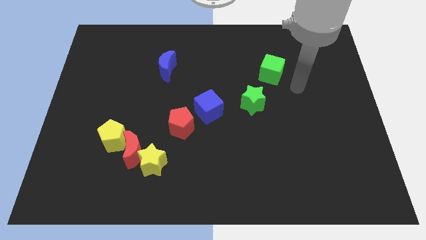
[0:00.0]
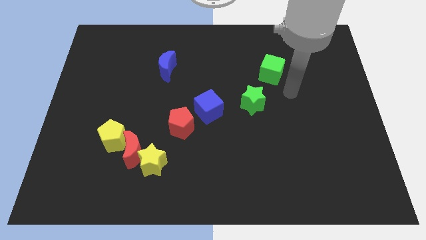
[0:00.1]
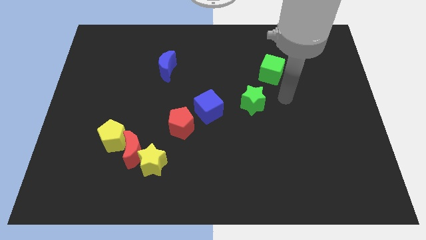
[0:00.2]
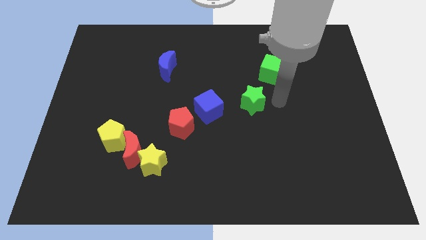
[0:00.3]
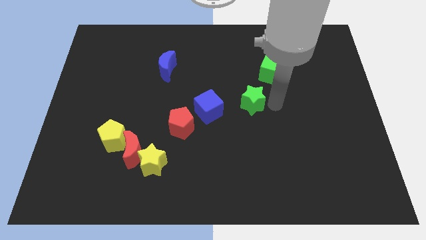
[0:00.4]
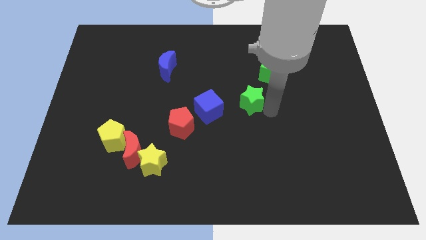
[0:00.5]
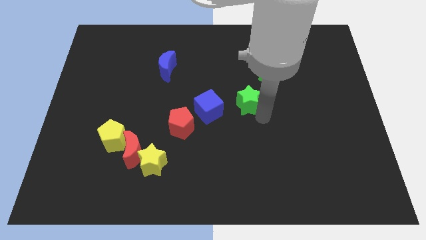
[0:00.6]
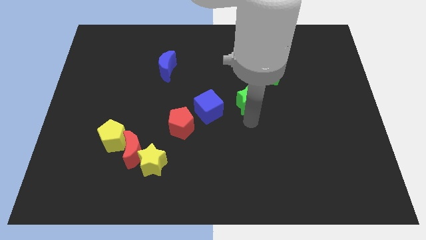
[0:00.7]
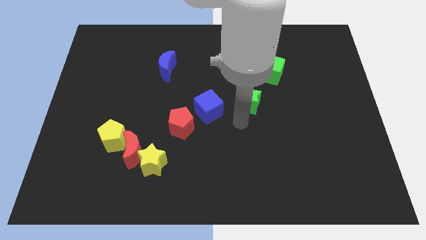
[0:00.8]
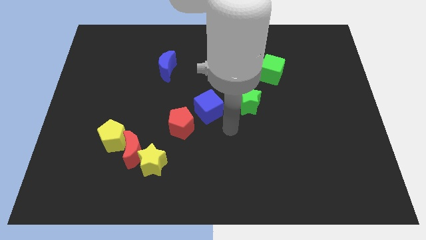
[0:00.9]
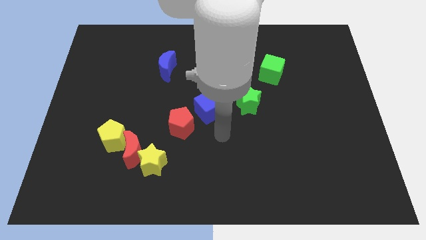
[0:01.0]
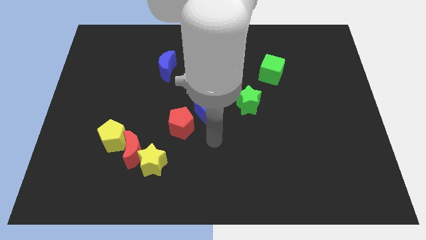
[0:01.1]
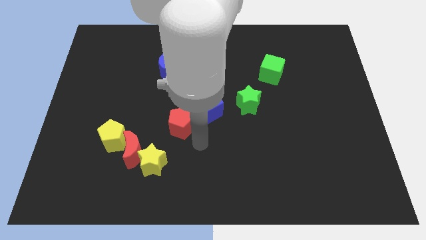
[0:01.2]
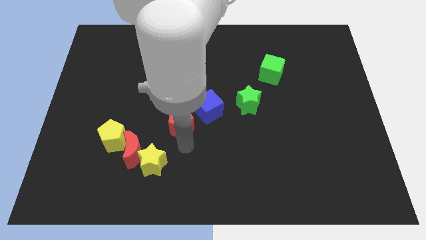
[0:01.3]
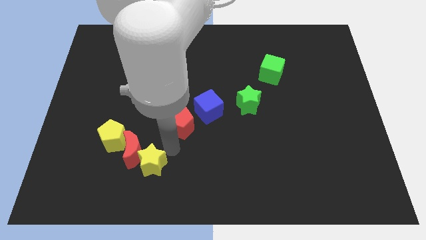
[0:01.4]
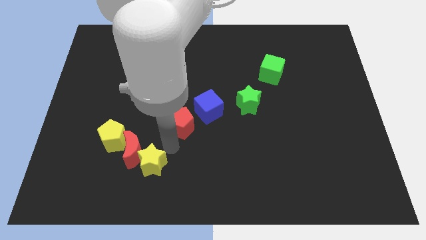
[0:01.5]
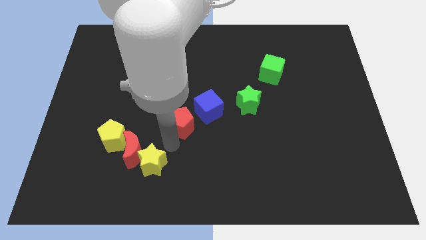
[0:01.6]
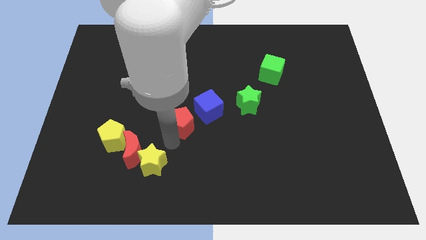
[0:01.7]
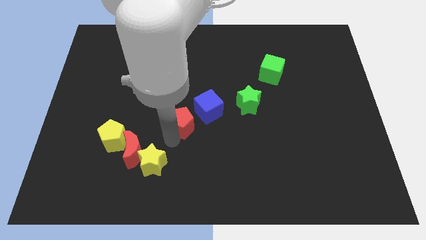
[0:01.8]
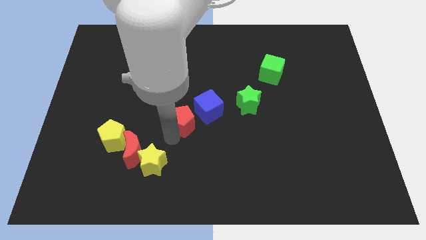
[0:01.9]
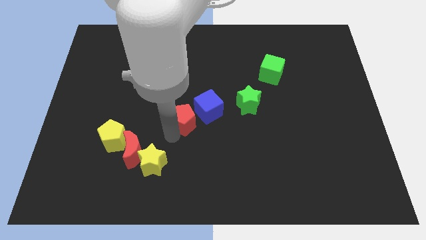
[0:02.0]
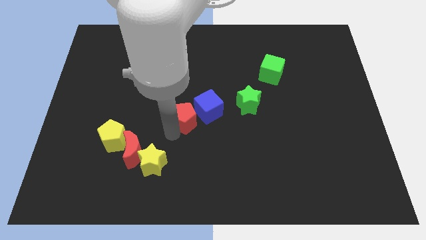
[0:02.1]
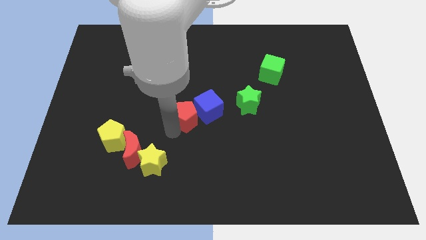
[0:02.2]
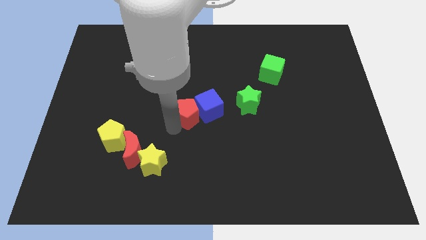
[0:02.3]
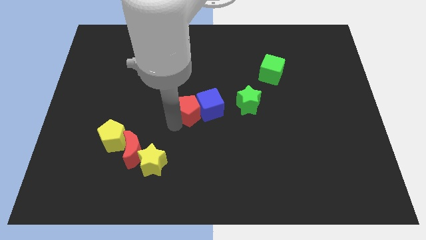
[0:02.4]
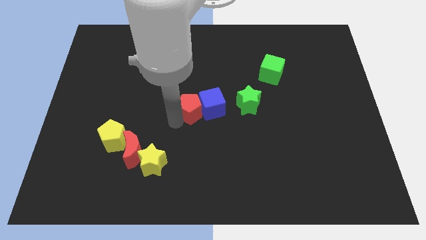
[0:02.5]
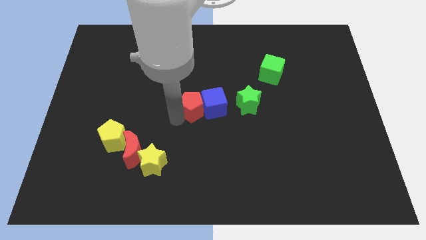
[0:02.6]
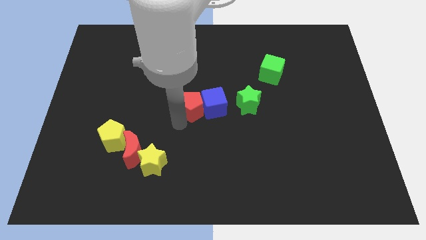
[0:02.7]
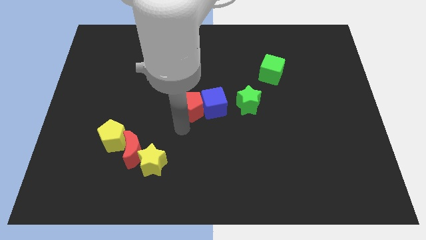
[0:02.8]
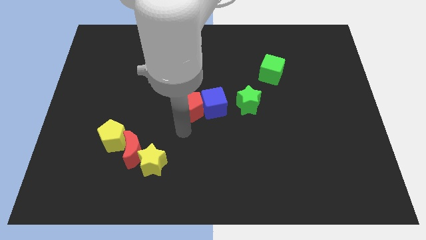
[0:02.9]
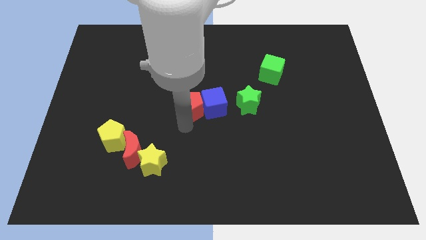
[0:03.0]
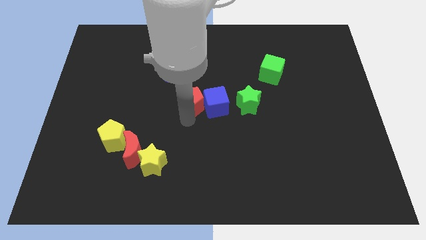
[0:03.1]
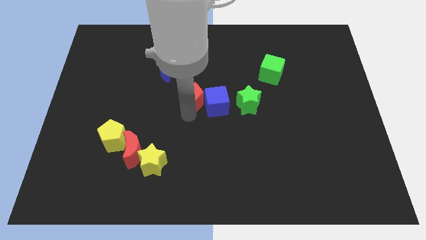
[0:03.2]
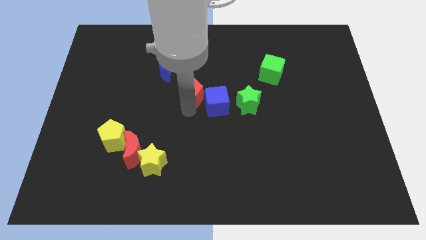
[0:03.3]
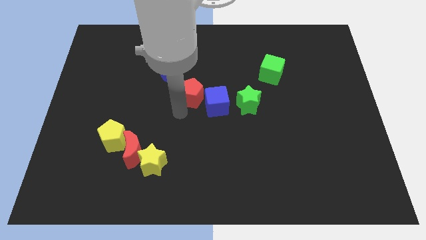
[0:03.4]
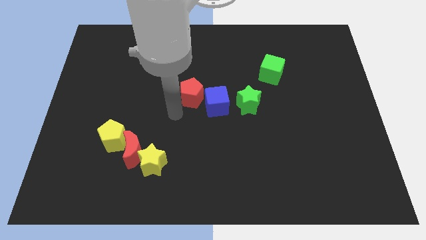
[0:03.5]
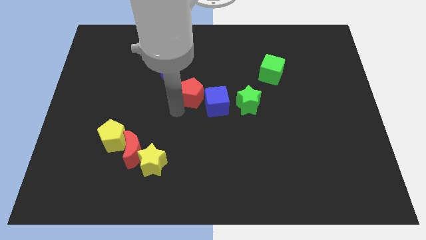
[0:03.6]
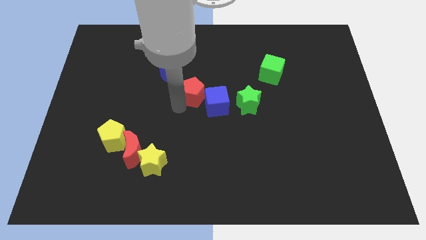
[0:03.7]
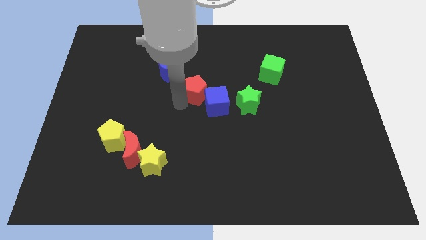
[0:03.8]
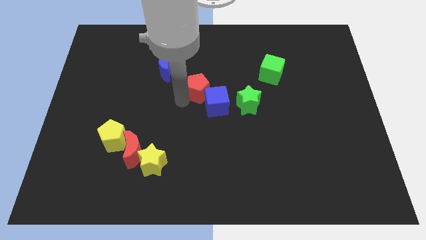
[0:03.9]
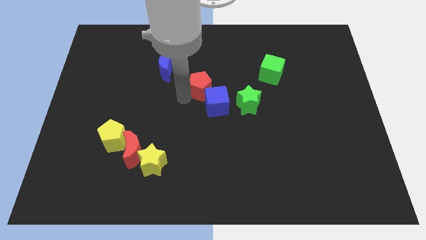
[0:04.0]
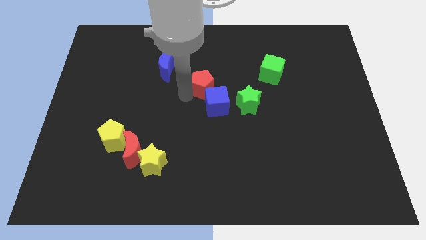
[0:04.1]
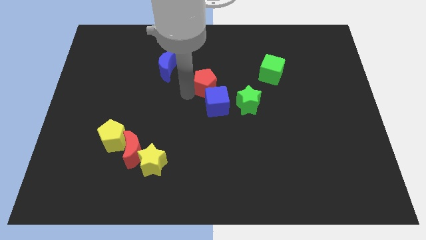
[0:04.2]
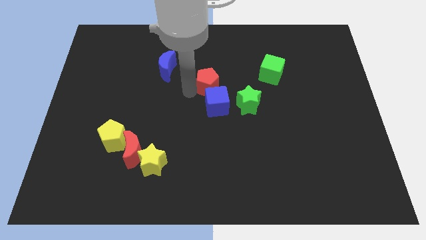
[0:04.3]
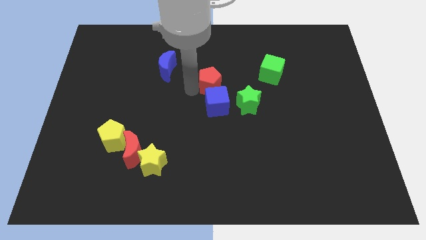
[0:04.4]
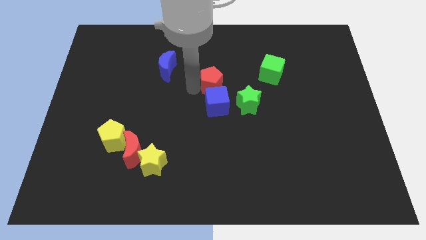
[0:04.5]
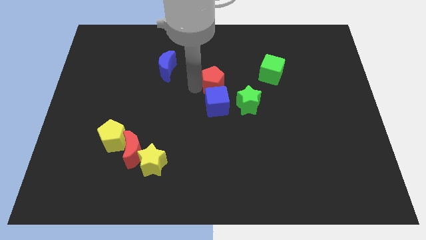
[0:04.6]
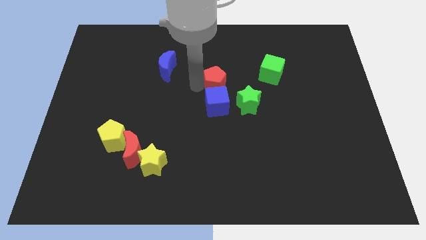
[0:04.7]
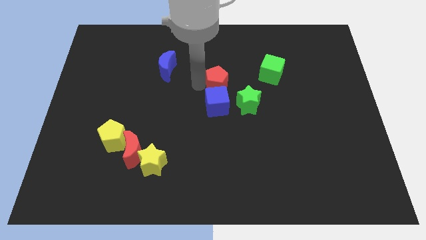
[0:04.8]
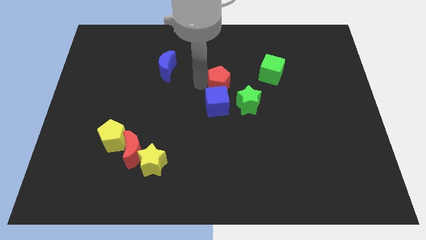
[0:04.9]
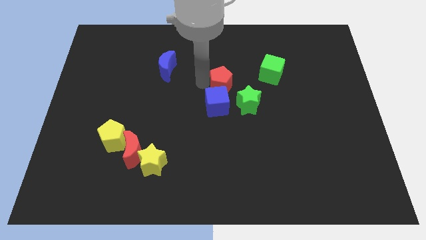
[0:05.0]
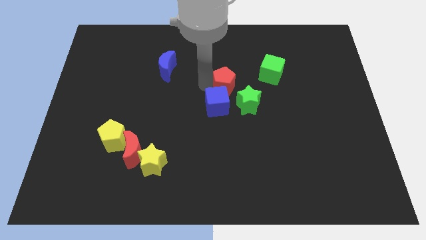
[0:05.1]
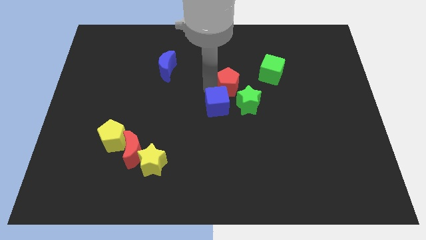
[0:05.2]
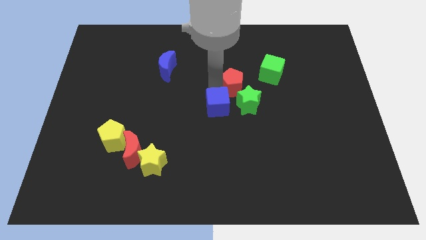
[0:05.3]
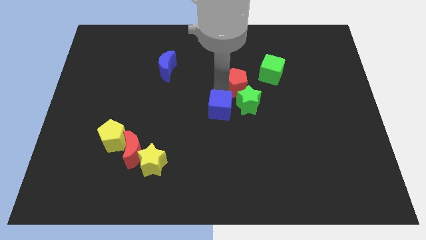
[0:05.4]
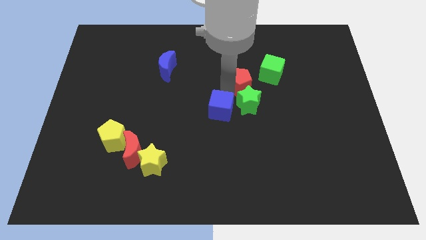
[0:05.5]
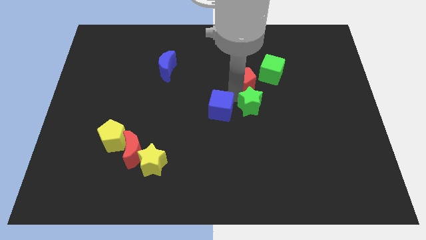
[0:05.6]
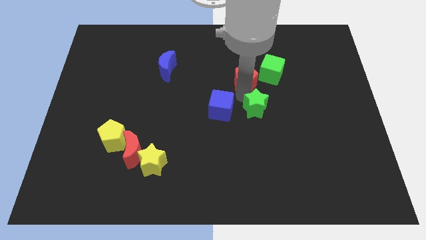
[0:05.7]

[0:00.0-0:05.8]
push the red pentagon up and right

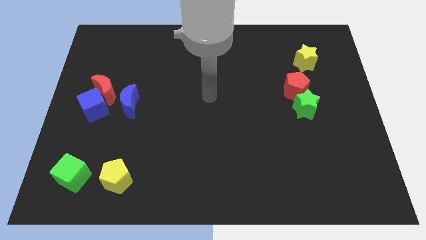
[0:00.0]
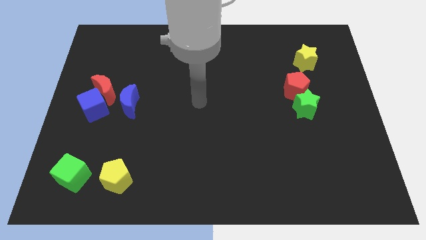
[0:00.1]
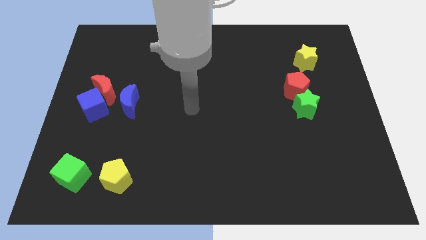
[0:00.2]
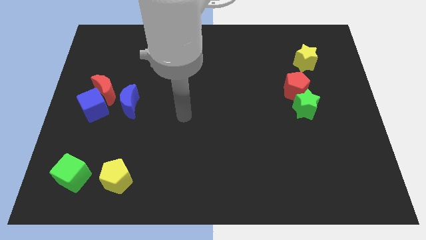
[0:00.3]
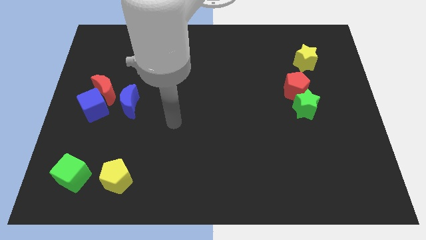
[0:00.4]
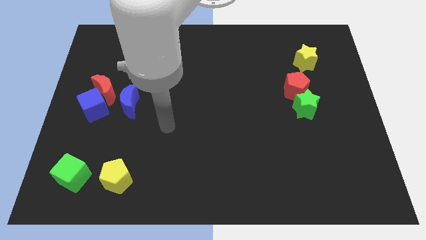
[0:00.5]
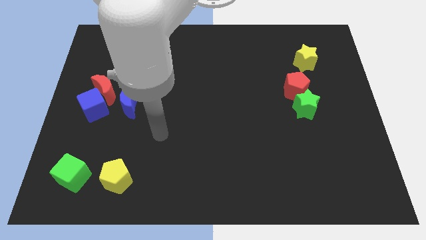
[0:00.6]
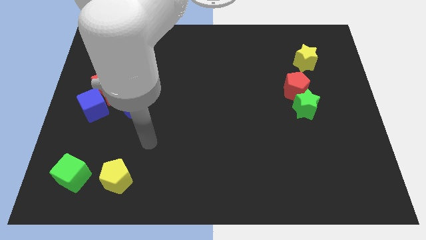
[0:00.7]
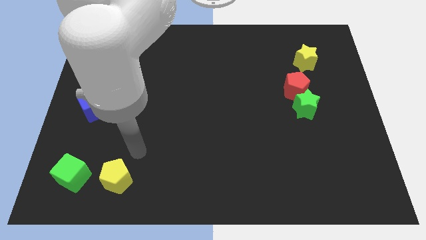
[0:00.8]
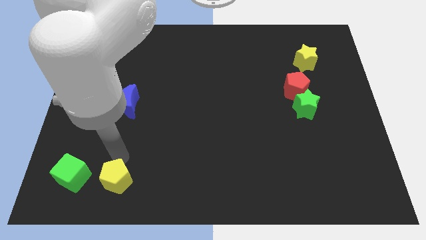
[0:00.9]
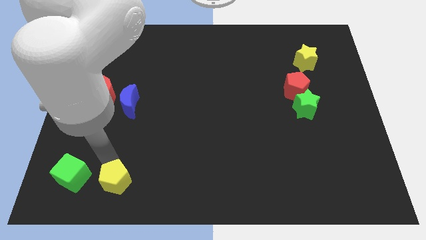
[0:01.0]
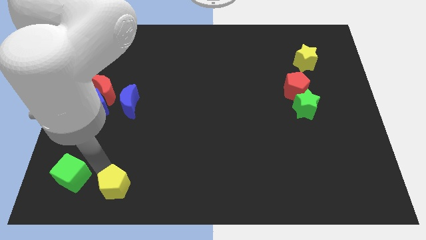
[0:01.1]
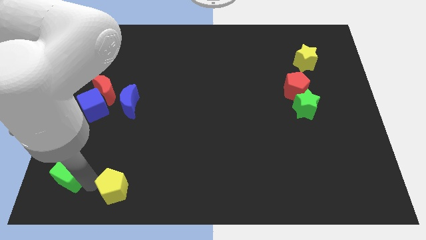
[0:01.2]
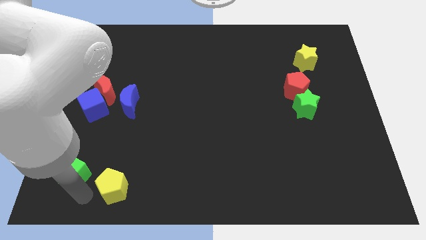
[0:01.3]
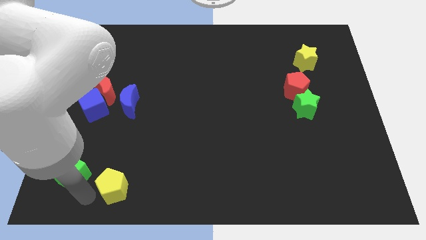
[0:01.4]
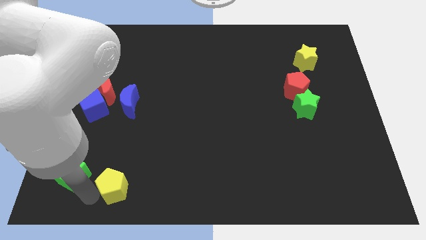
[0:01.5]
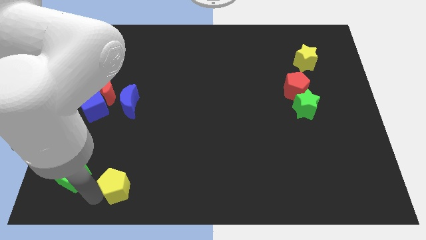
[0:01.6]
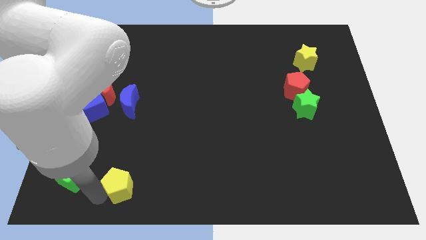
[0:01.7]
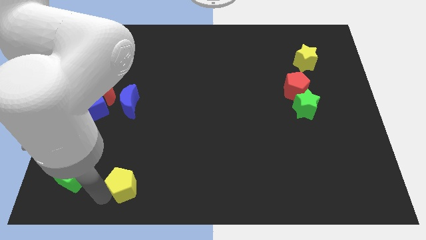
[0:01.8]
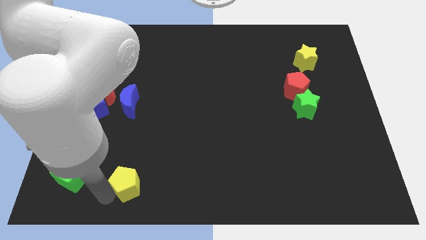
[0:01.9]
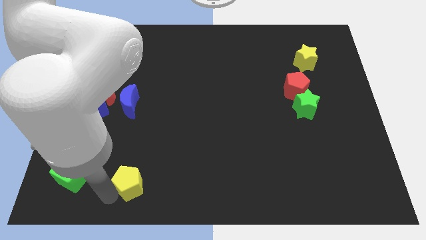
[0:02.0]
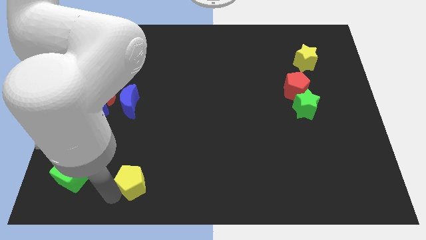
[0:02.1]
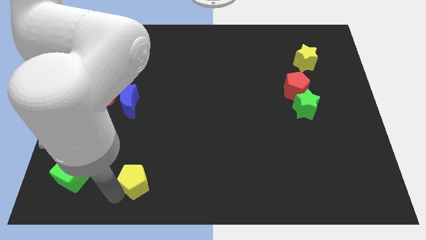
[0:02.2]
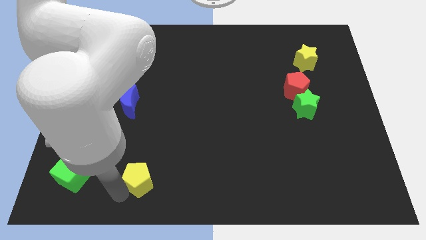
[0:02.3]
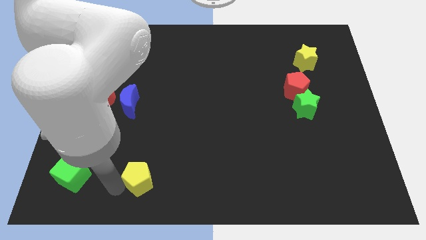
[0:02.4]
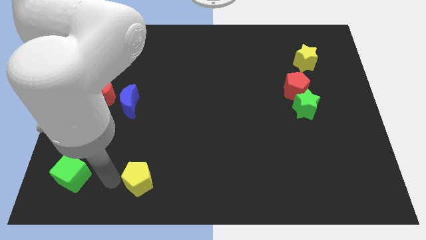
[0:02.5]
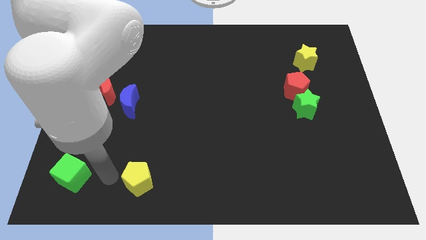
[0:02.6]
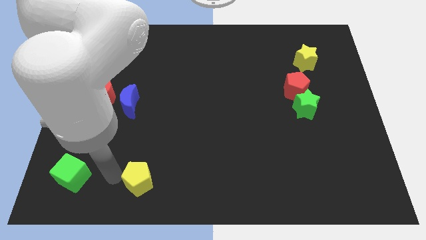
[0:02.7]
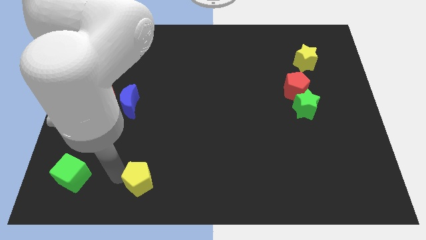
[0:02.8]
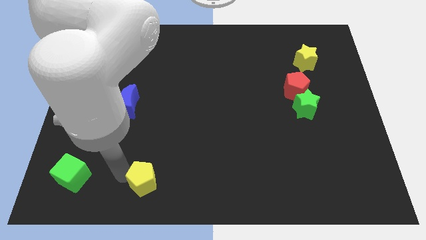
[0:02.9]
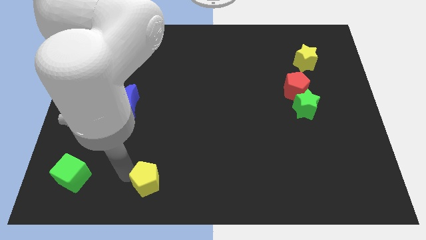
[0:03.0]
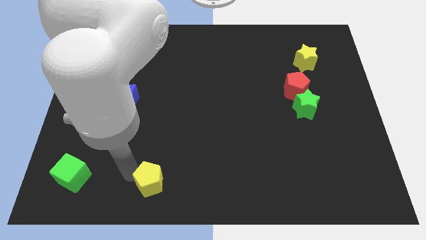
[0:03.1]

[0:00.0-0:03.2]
push the yellow pentagon somewhat to the right
